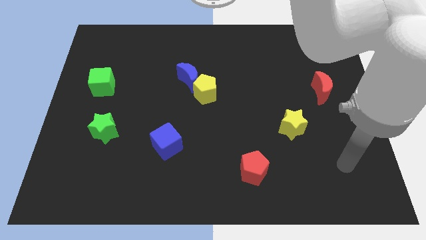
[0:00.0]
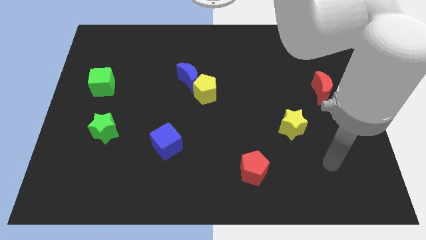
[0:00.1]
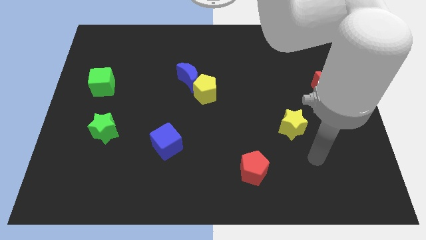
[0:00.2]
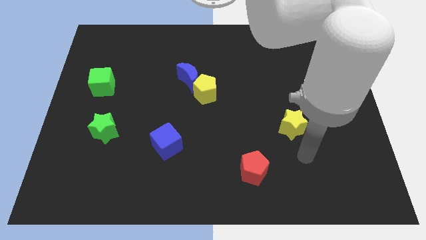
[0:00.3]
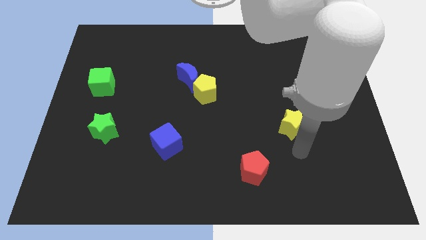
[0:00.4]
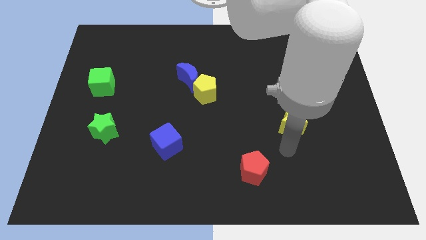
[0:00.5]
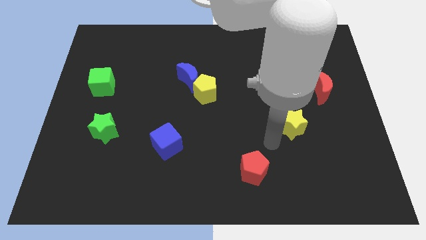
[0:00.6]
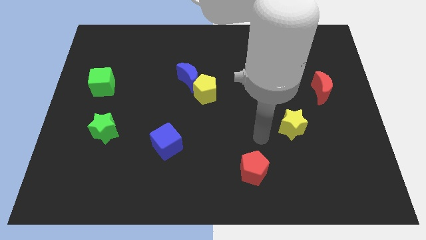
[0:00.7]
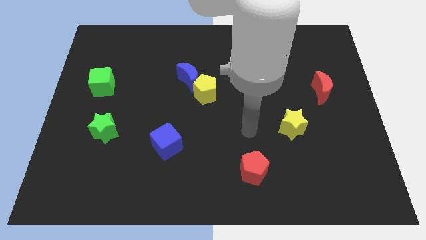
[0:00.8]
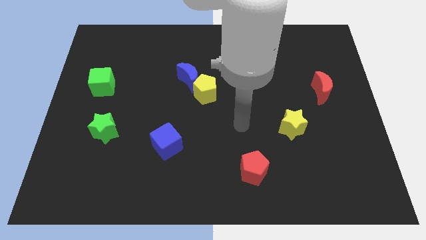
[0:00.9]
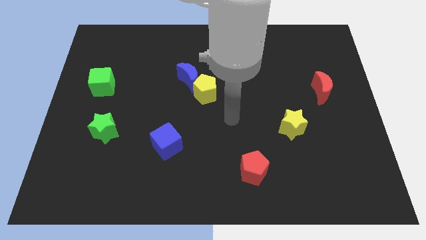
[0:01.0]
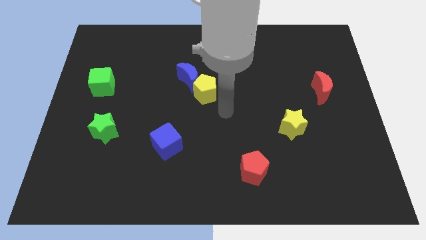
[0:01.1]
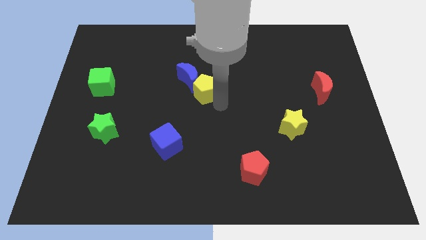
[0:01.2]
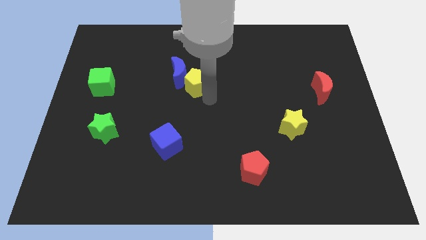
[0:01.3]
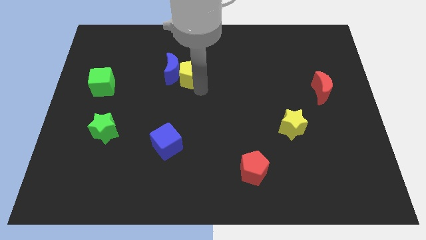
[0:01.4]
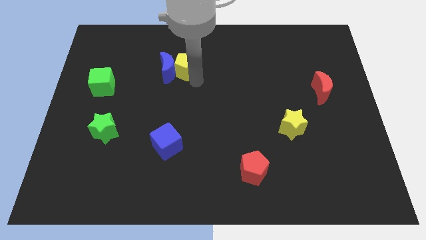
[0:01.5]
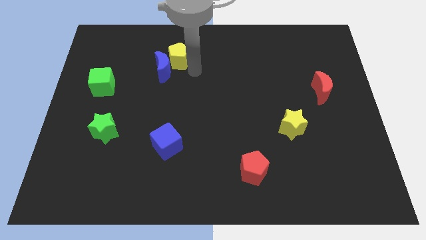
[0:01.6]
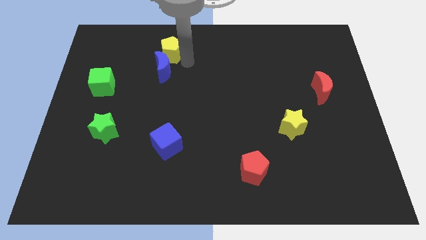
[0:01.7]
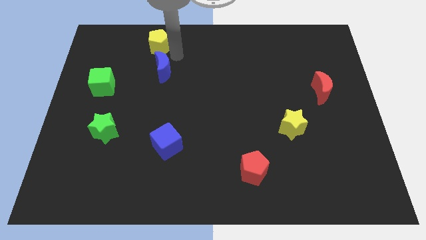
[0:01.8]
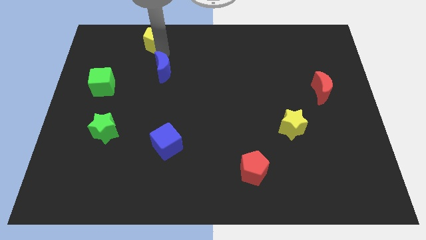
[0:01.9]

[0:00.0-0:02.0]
move the blue moon away from the yellow pentagon

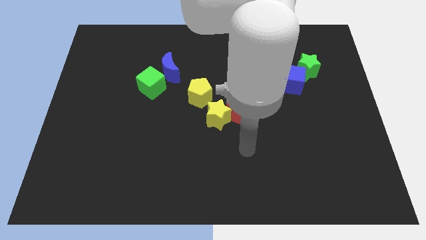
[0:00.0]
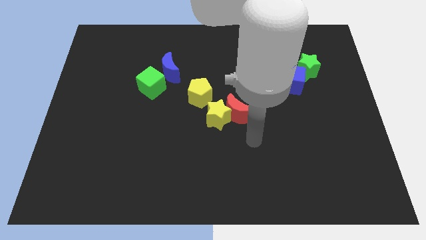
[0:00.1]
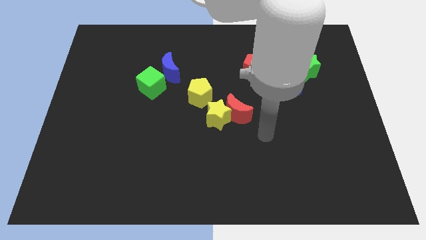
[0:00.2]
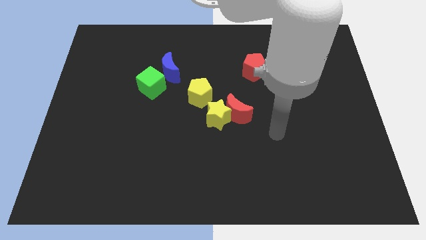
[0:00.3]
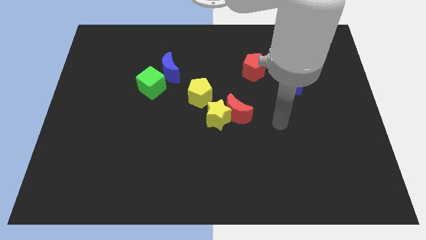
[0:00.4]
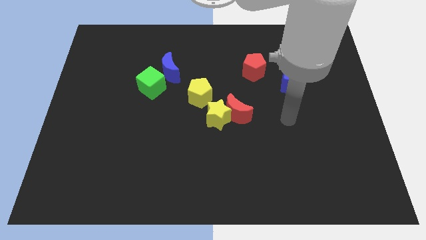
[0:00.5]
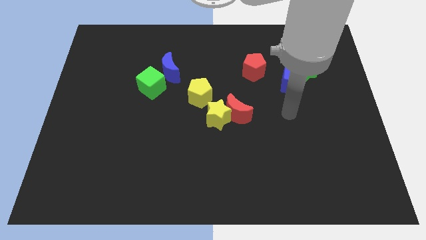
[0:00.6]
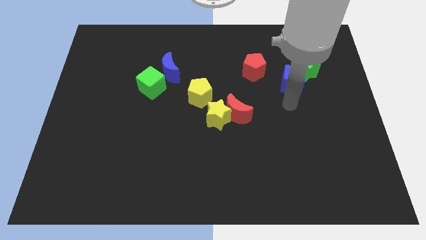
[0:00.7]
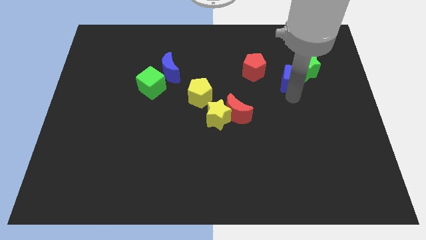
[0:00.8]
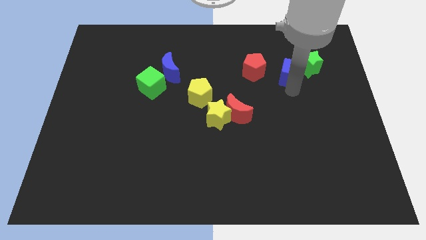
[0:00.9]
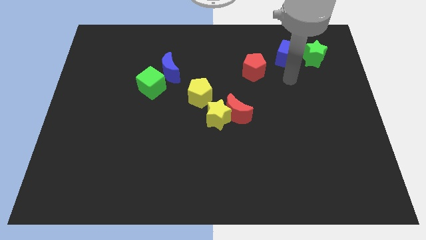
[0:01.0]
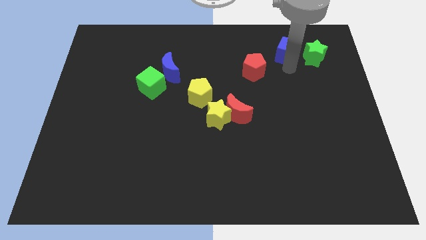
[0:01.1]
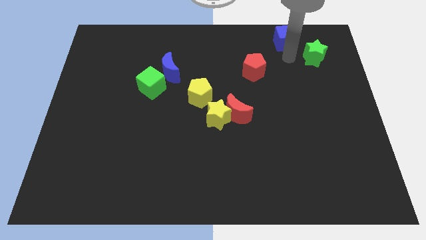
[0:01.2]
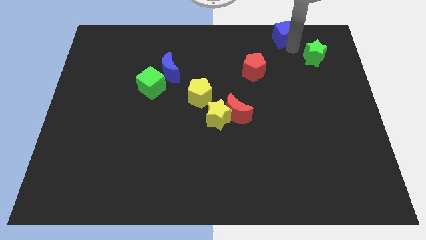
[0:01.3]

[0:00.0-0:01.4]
pull the green star apart from the blue cube

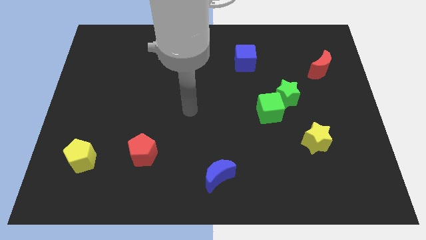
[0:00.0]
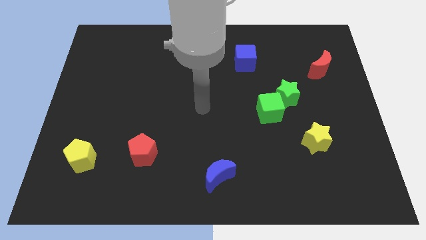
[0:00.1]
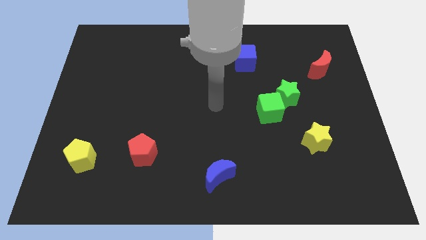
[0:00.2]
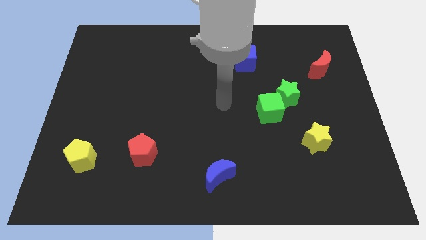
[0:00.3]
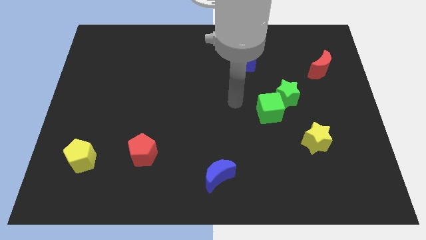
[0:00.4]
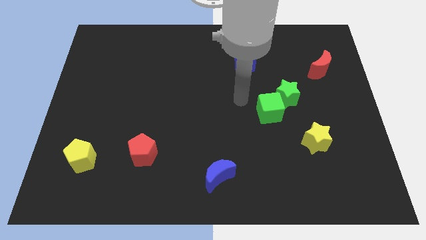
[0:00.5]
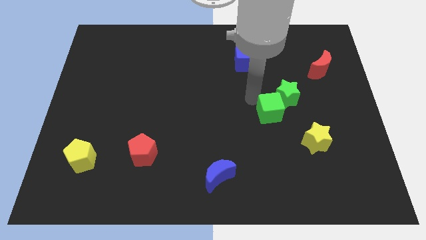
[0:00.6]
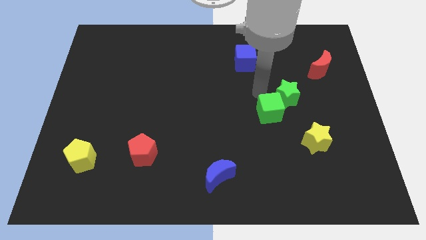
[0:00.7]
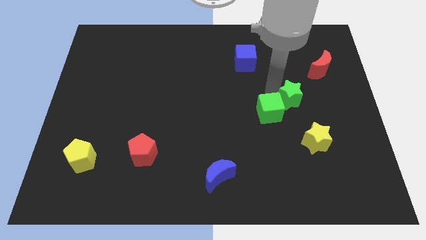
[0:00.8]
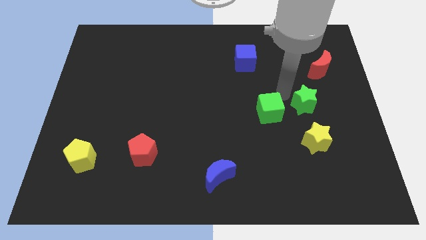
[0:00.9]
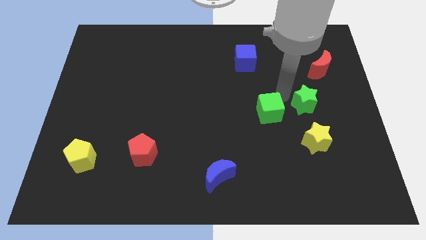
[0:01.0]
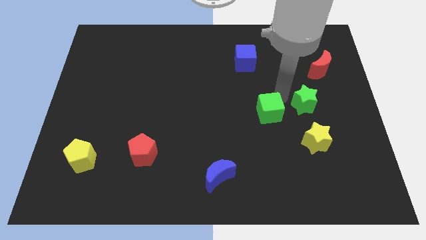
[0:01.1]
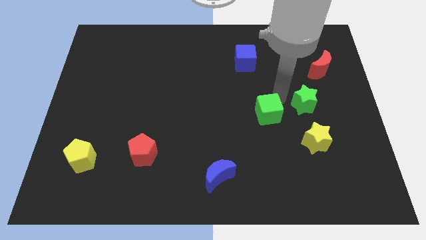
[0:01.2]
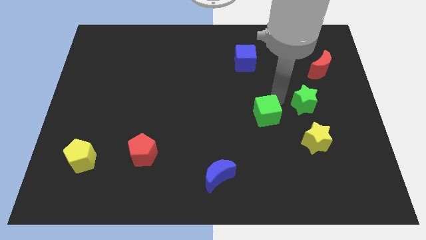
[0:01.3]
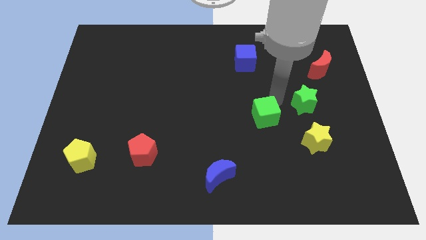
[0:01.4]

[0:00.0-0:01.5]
pull the green cube apart from the green star

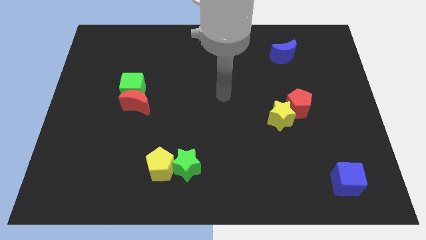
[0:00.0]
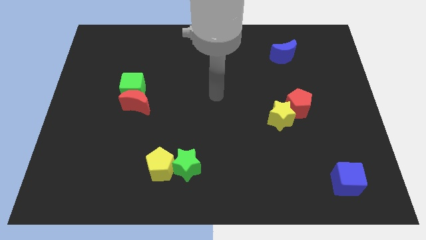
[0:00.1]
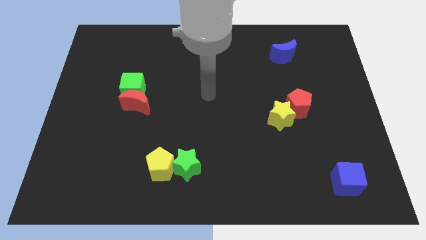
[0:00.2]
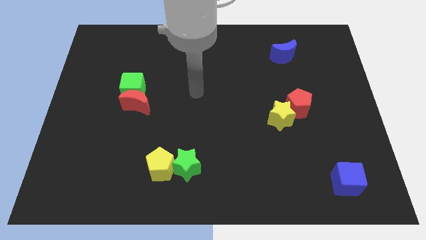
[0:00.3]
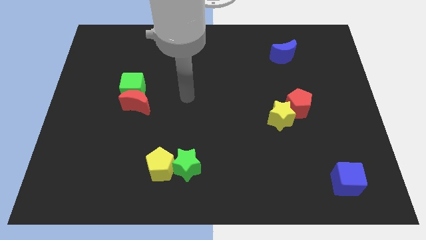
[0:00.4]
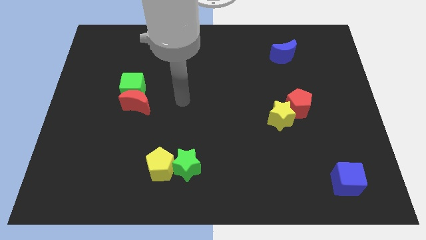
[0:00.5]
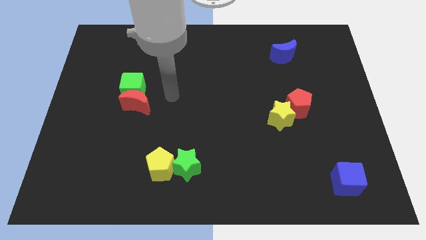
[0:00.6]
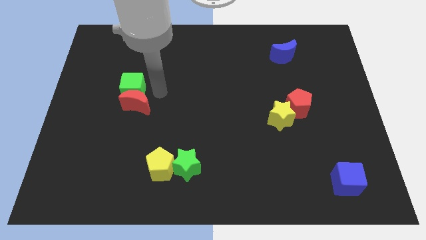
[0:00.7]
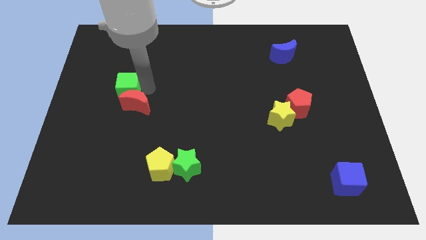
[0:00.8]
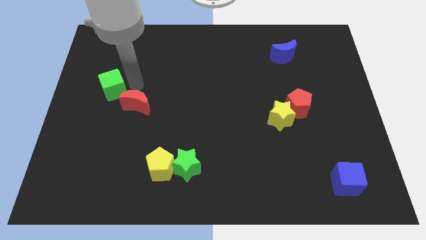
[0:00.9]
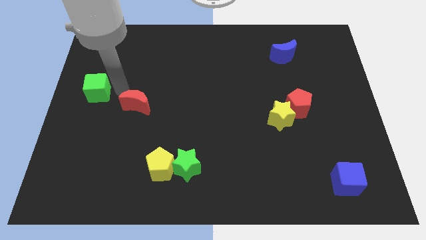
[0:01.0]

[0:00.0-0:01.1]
pull the red moon apart from the green cube

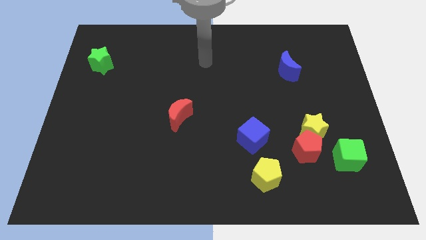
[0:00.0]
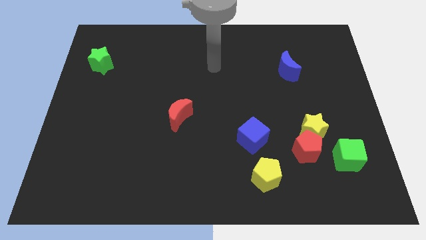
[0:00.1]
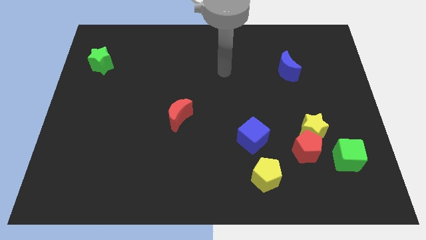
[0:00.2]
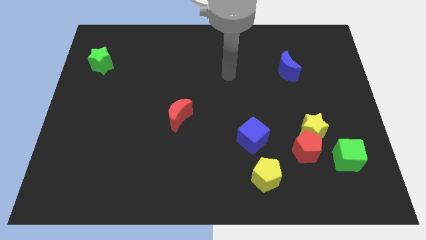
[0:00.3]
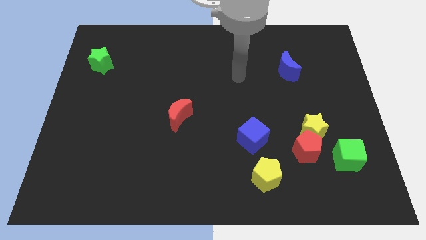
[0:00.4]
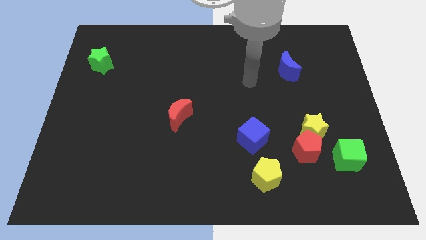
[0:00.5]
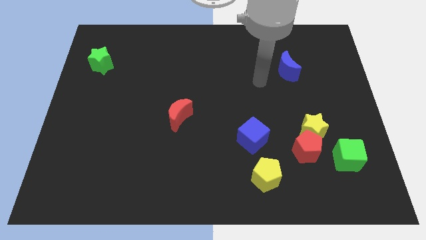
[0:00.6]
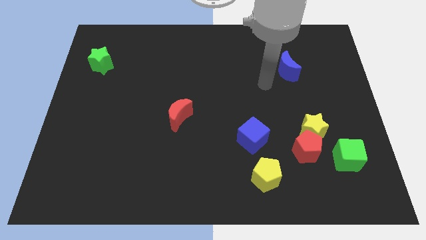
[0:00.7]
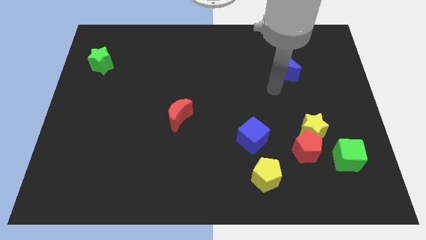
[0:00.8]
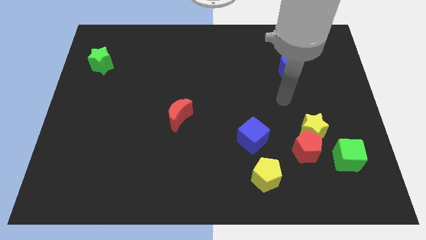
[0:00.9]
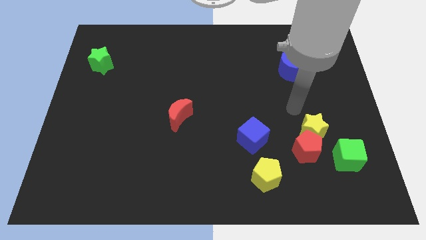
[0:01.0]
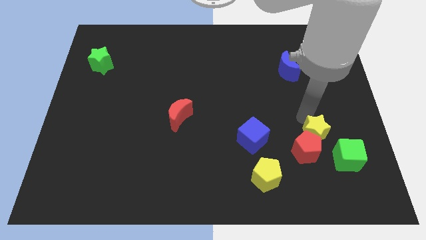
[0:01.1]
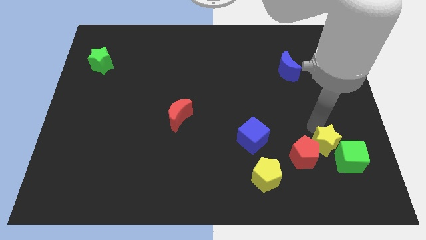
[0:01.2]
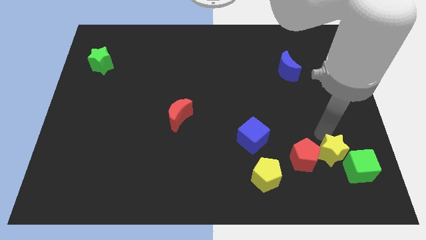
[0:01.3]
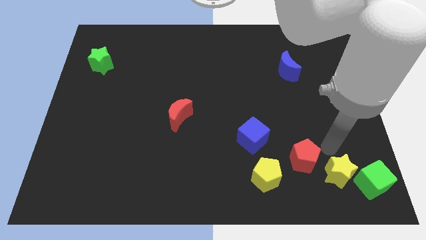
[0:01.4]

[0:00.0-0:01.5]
pull the red pentagon apart from the yellow star and green cube

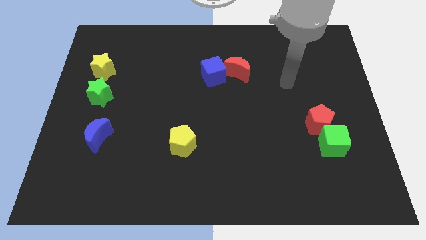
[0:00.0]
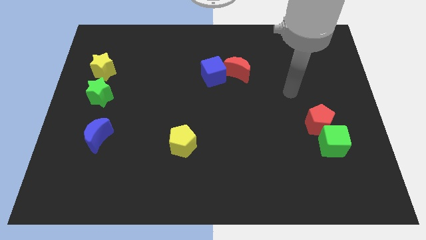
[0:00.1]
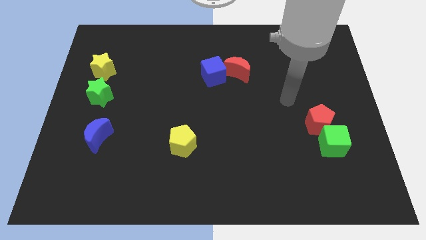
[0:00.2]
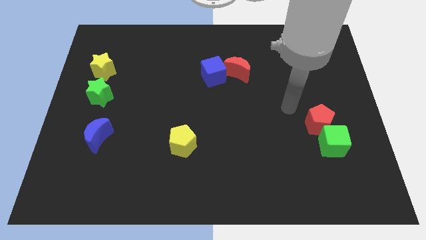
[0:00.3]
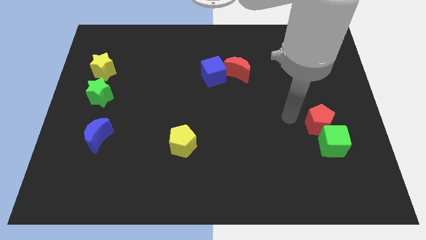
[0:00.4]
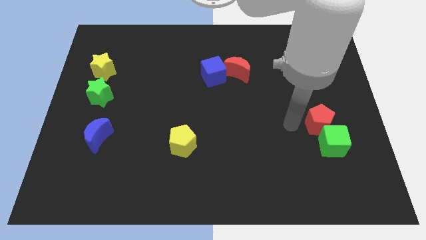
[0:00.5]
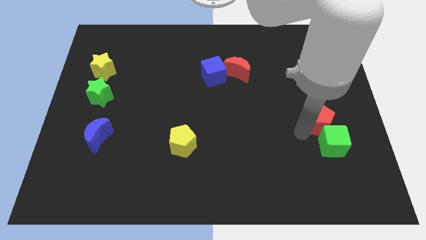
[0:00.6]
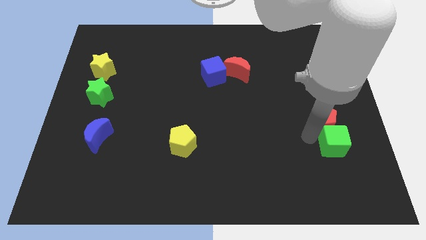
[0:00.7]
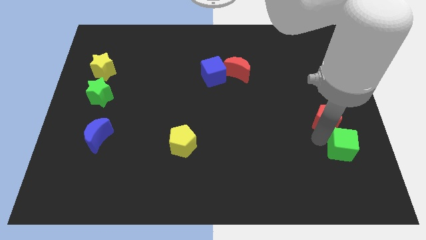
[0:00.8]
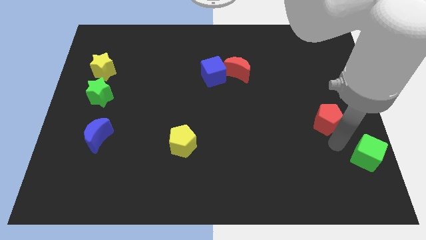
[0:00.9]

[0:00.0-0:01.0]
pull the red pentagon apart from the green cube

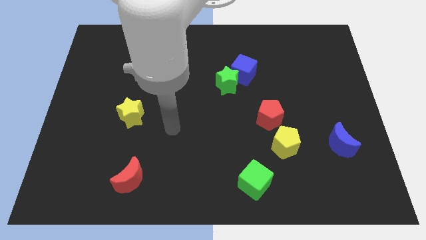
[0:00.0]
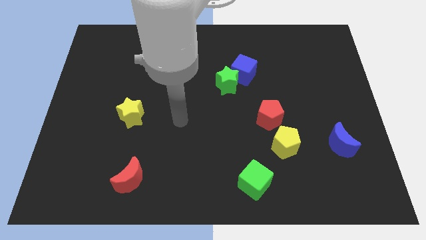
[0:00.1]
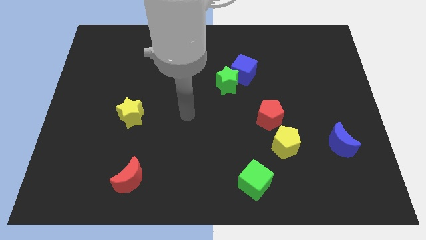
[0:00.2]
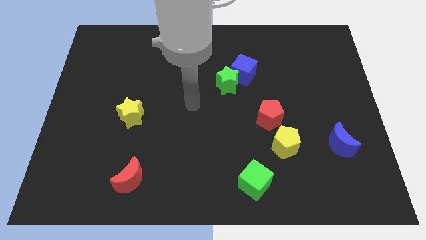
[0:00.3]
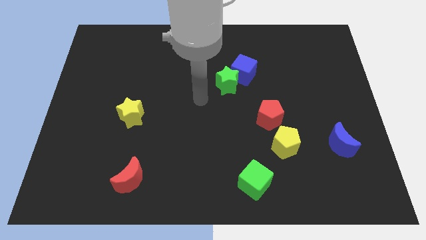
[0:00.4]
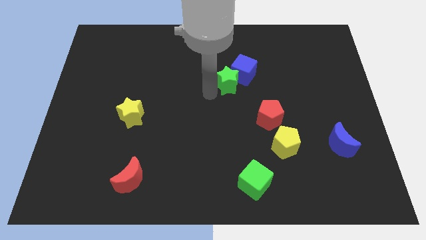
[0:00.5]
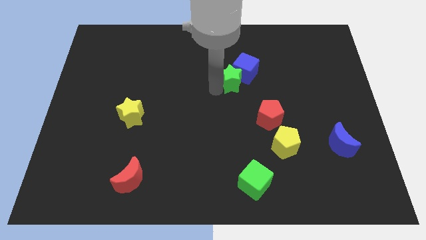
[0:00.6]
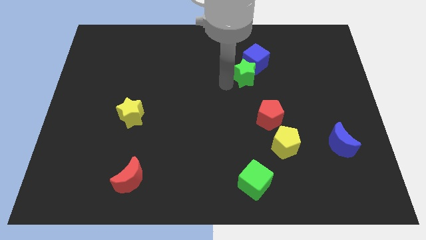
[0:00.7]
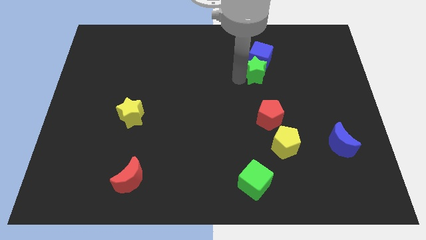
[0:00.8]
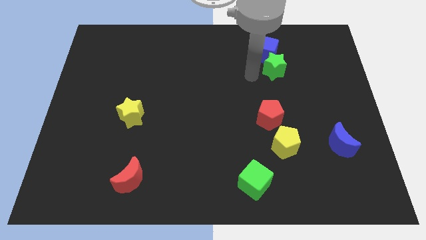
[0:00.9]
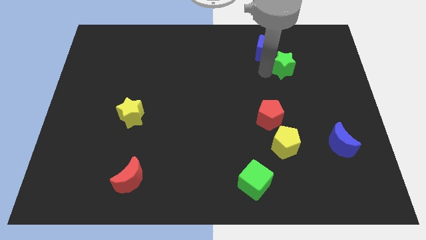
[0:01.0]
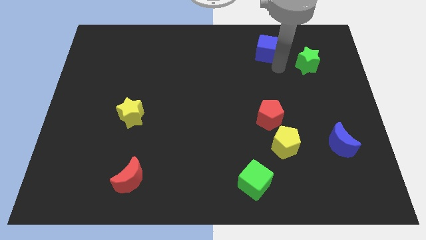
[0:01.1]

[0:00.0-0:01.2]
pull the blue cube apart from the green star
